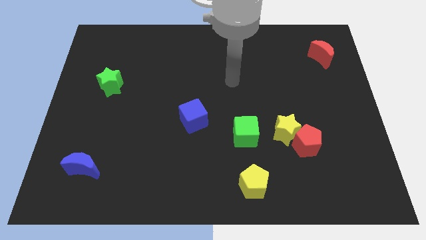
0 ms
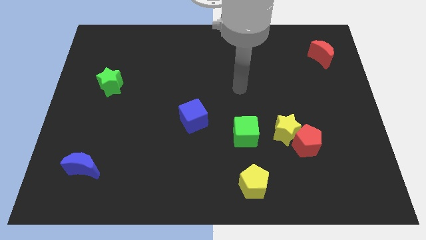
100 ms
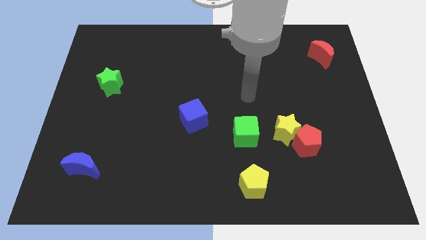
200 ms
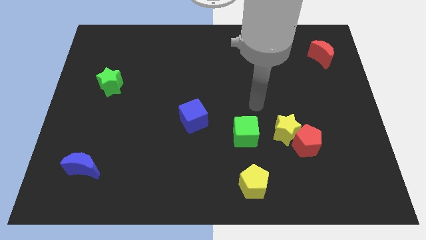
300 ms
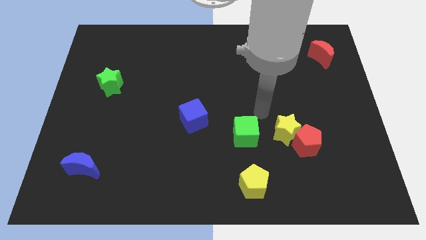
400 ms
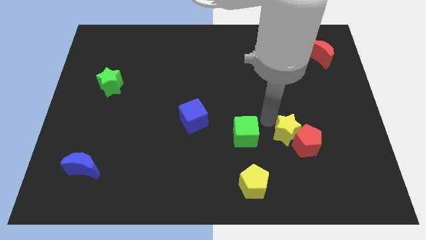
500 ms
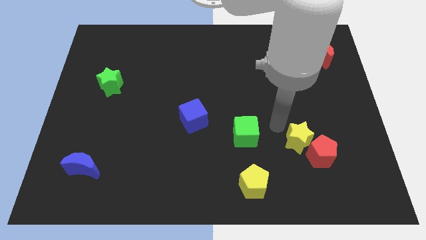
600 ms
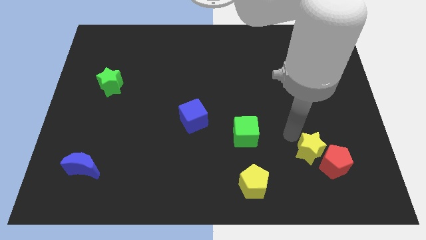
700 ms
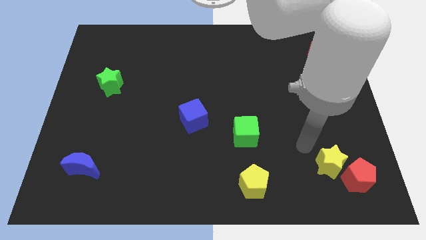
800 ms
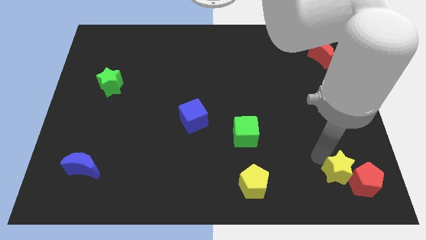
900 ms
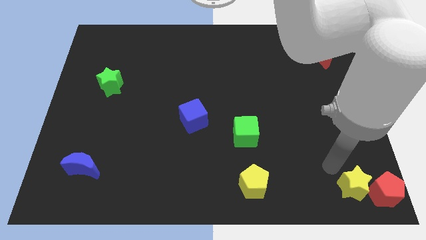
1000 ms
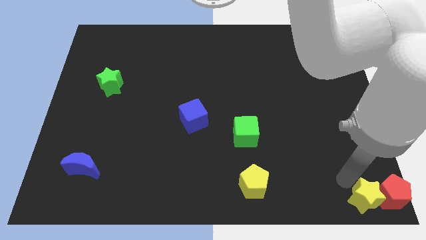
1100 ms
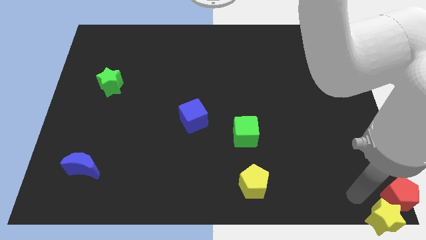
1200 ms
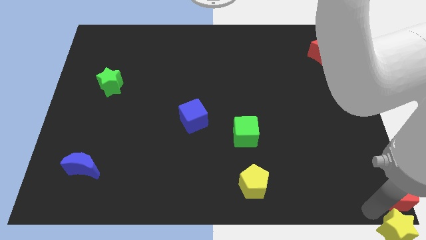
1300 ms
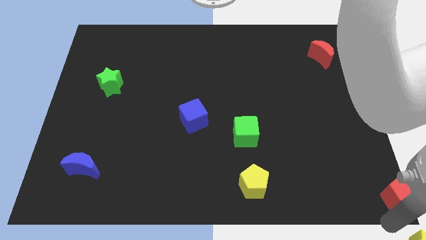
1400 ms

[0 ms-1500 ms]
pull the red pentagon apart from the yellow star

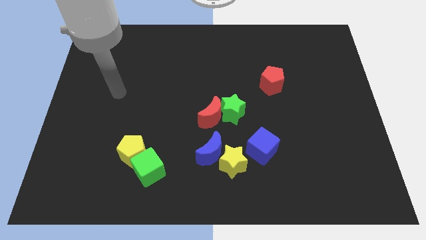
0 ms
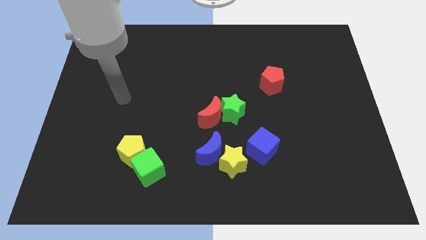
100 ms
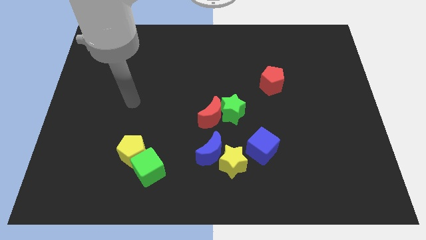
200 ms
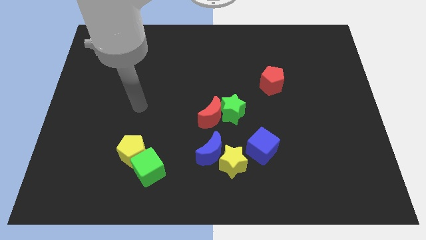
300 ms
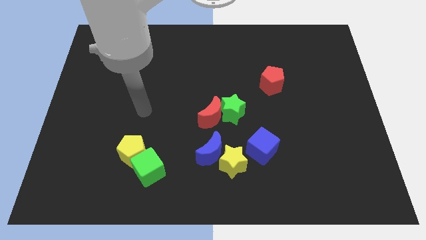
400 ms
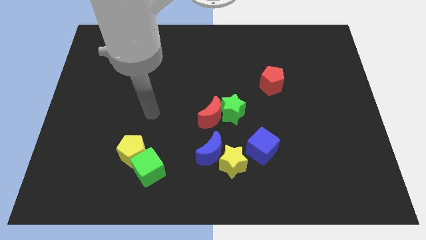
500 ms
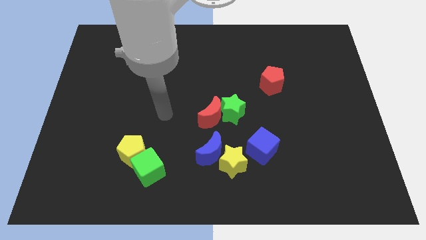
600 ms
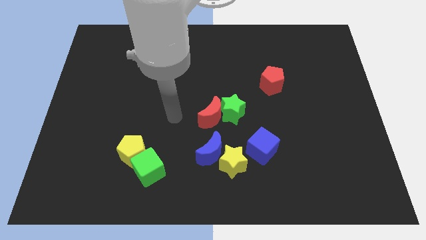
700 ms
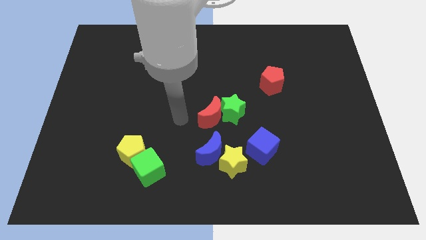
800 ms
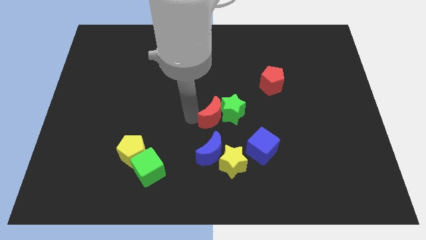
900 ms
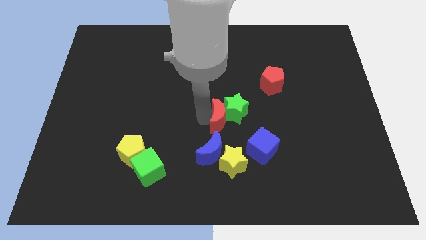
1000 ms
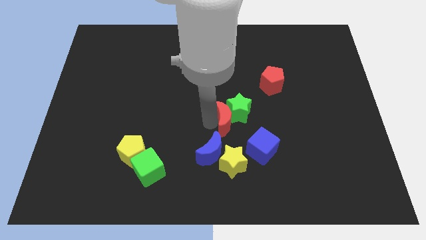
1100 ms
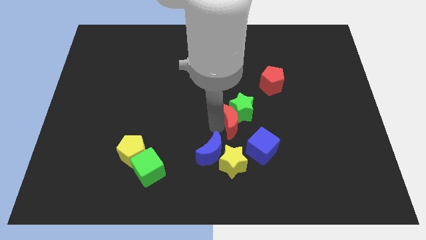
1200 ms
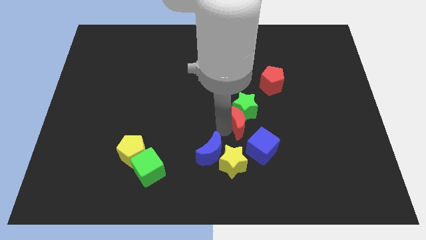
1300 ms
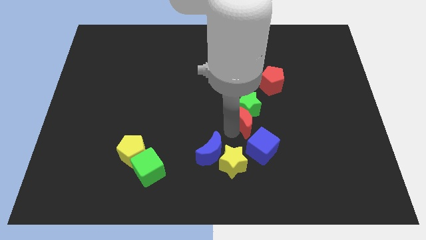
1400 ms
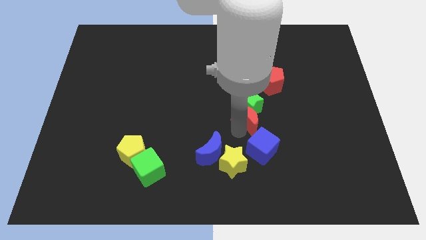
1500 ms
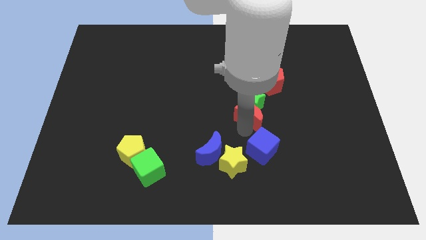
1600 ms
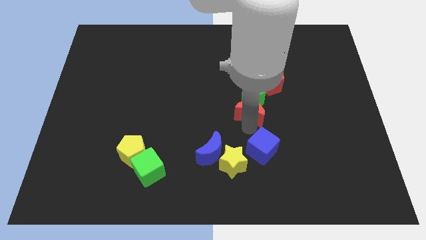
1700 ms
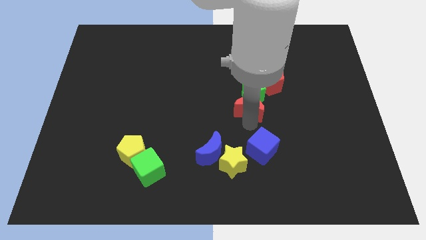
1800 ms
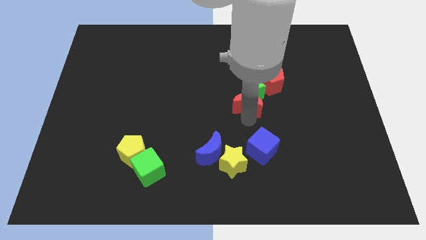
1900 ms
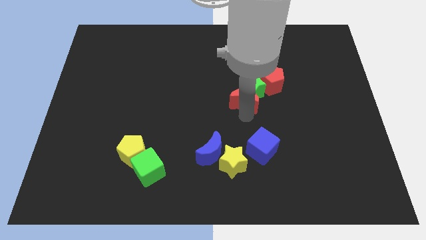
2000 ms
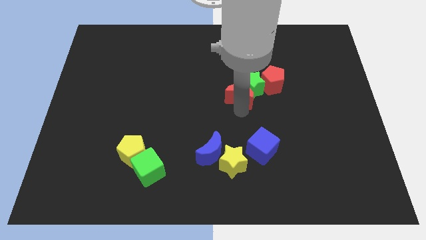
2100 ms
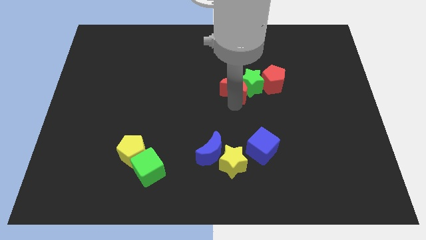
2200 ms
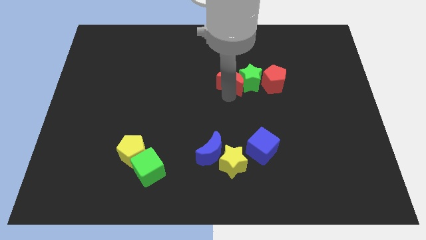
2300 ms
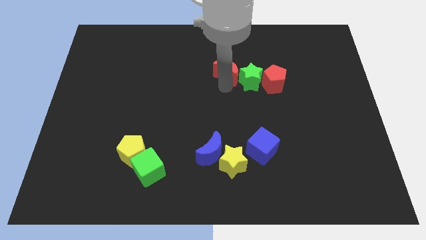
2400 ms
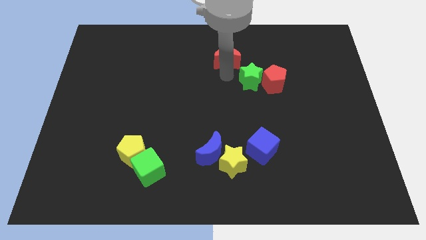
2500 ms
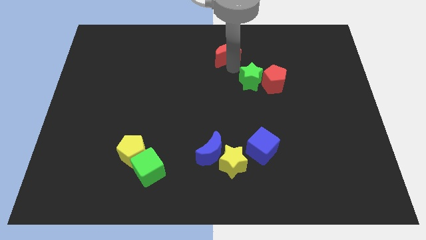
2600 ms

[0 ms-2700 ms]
pull the green star apart from the red moon

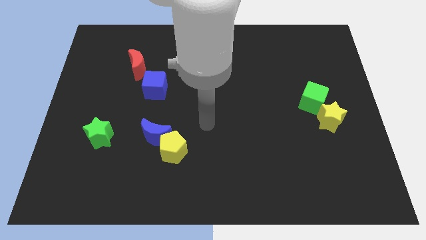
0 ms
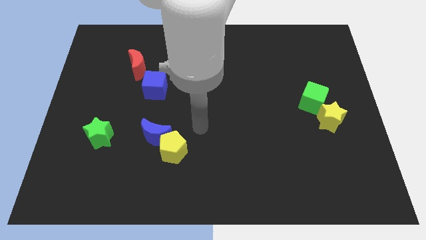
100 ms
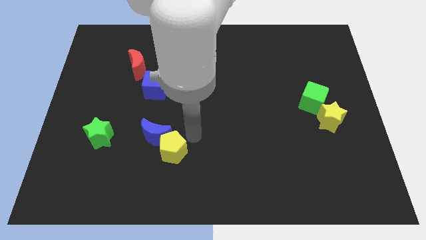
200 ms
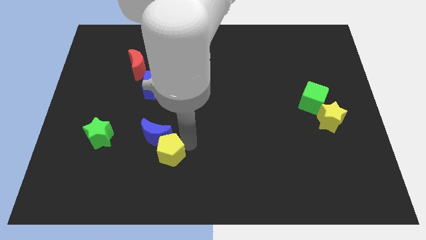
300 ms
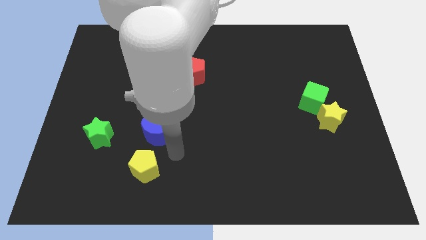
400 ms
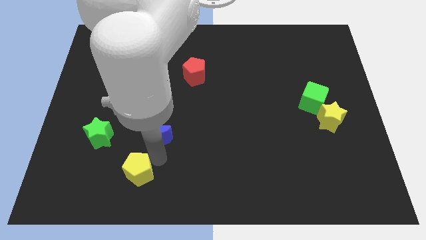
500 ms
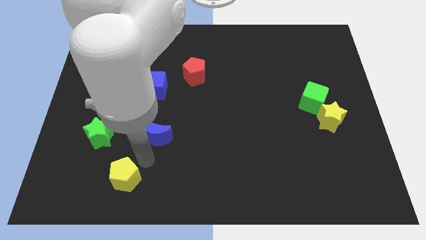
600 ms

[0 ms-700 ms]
pull the blue moon apart from the yellow pentagon

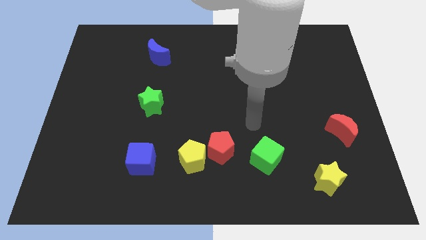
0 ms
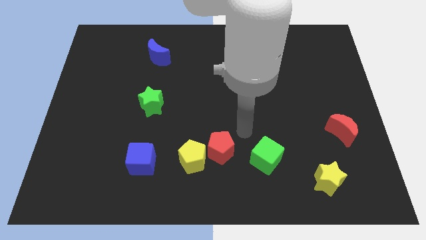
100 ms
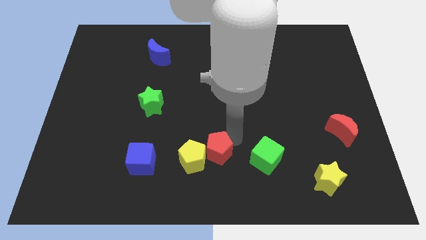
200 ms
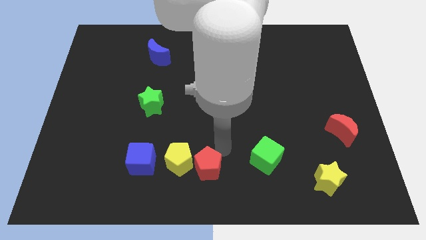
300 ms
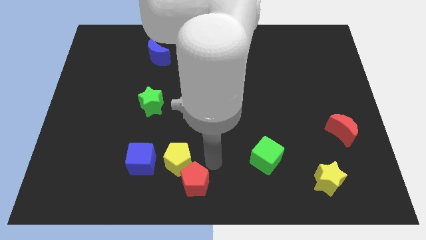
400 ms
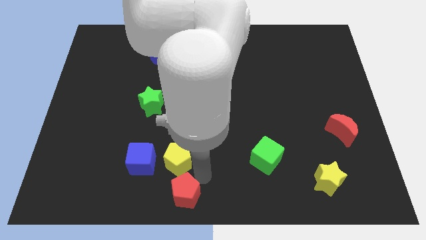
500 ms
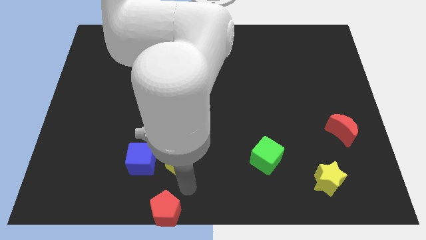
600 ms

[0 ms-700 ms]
pull the yellow pentagon apart from the red pentagon

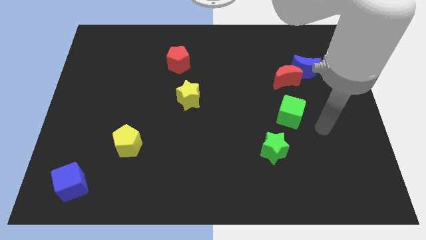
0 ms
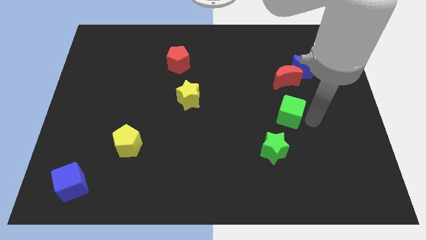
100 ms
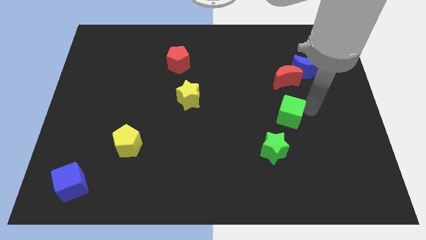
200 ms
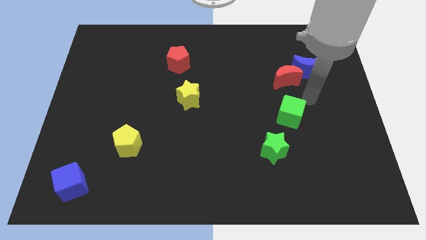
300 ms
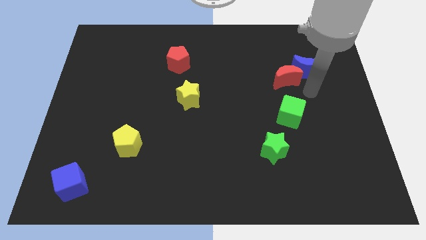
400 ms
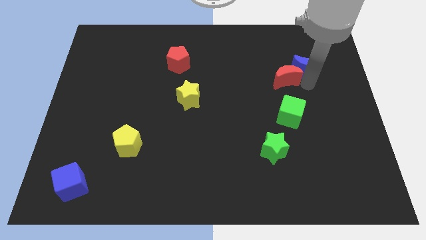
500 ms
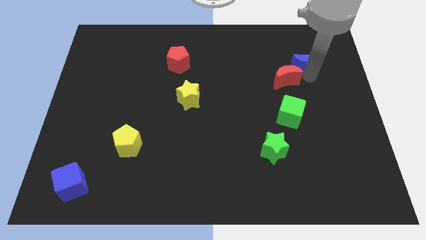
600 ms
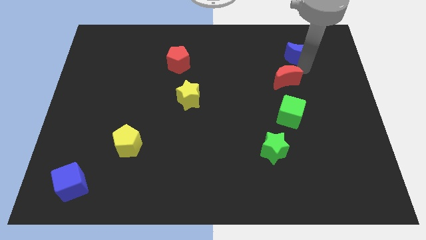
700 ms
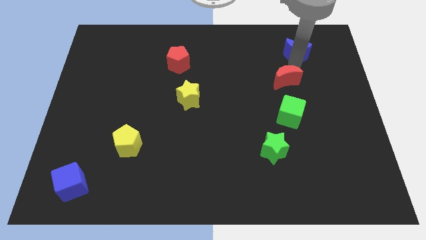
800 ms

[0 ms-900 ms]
separate the red moon from the blue moon

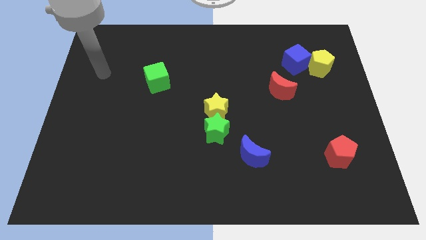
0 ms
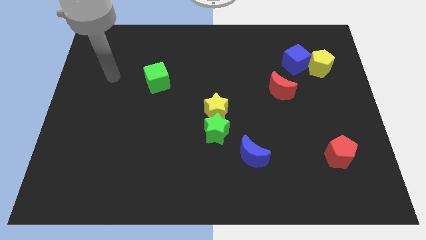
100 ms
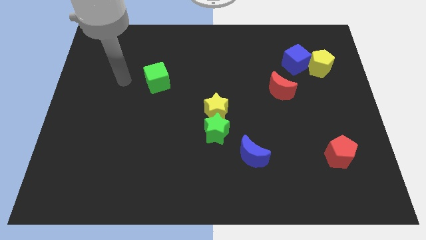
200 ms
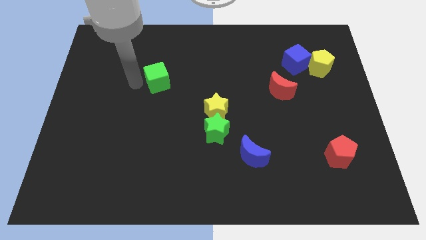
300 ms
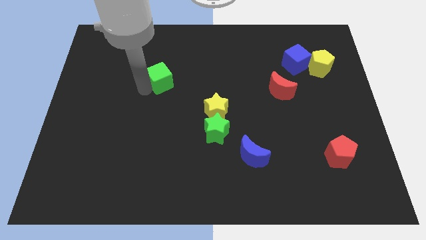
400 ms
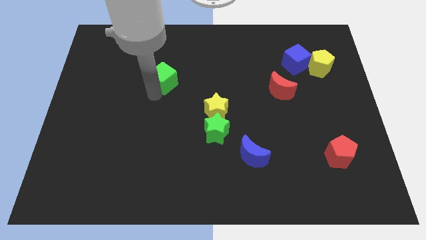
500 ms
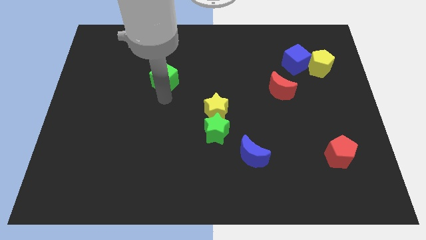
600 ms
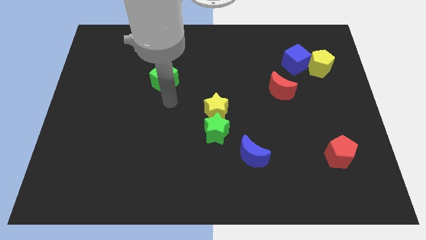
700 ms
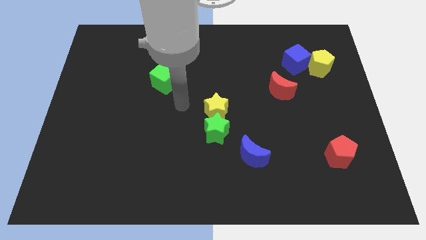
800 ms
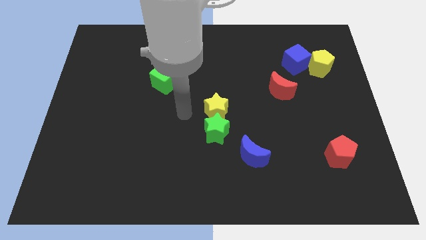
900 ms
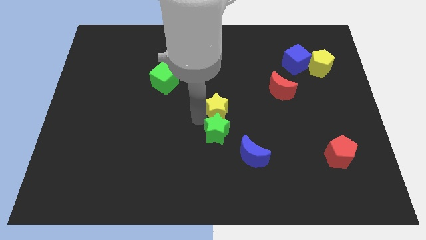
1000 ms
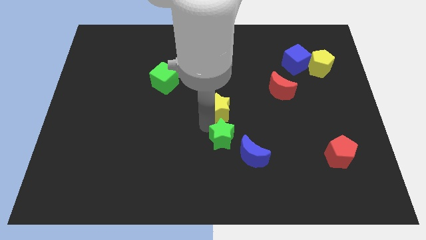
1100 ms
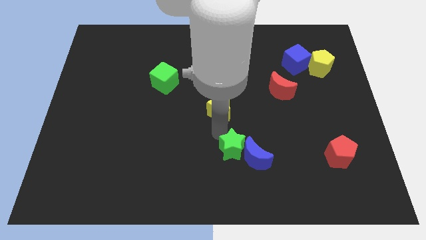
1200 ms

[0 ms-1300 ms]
move the yellow star away from the green star

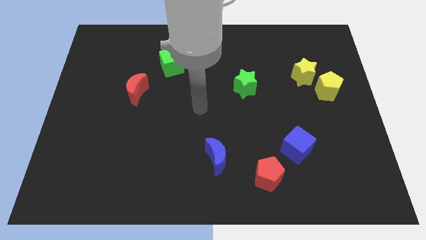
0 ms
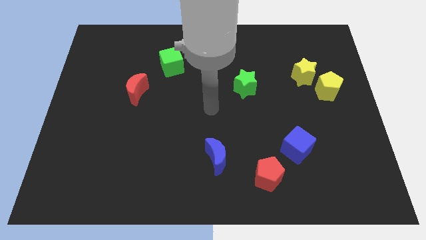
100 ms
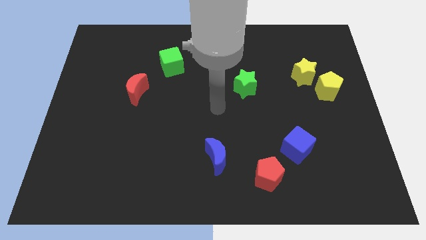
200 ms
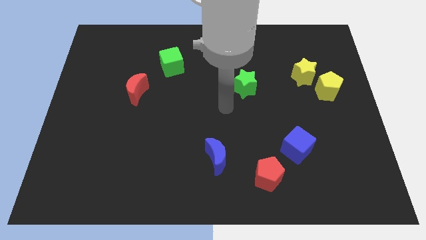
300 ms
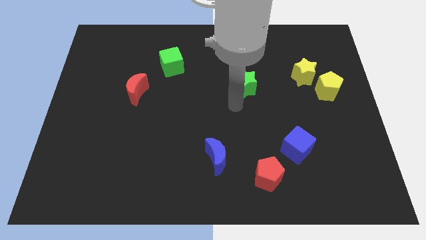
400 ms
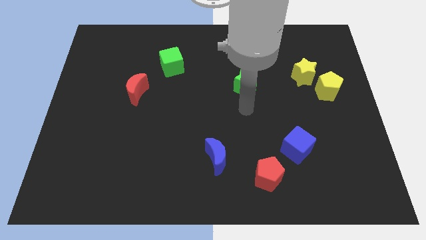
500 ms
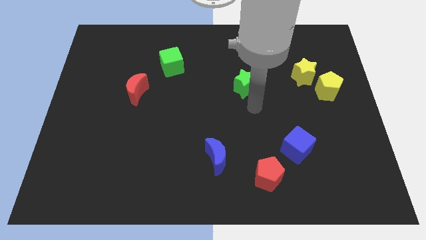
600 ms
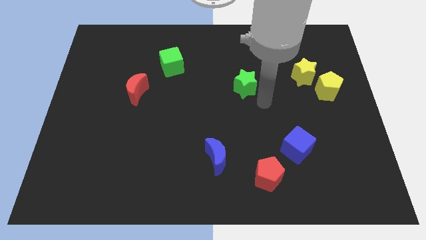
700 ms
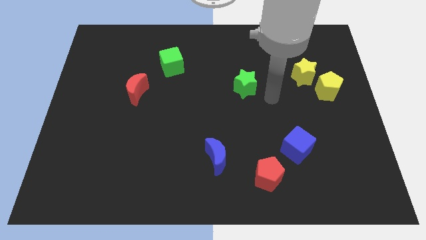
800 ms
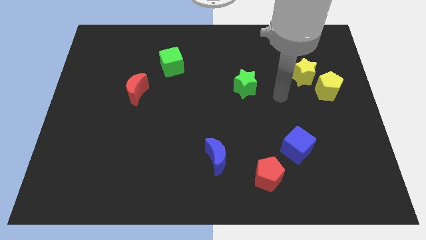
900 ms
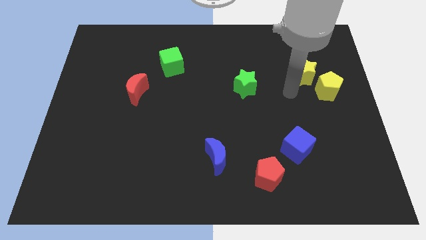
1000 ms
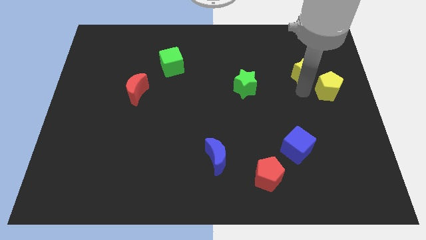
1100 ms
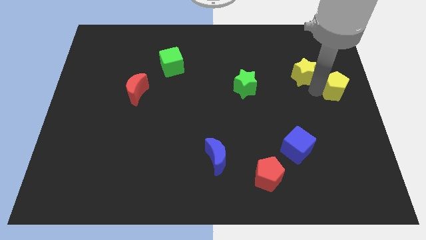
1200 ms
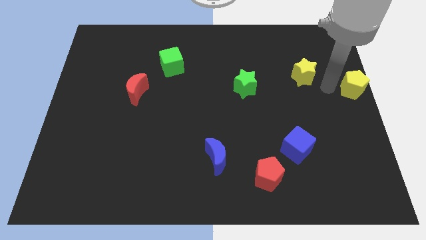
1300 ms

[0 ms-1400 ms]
move the yellow star away from the yellow pentagon
